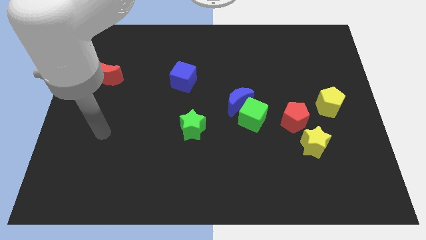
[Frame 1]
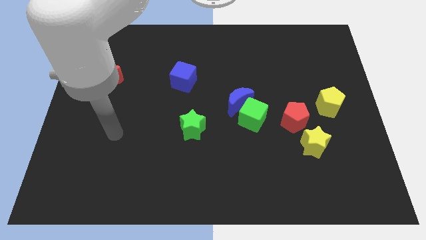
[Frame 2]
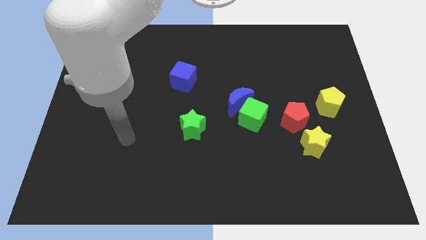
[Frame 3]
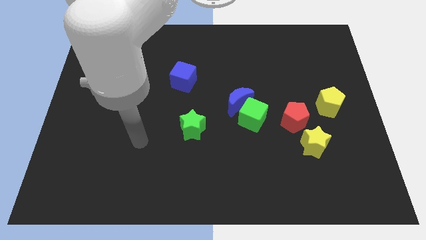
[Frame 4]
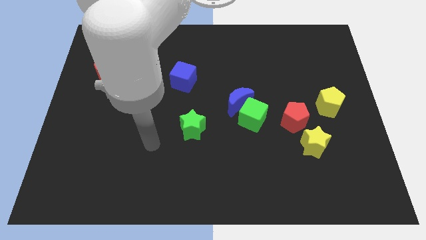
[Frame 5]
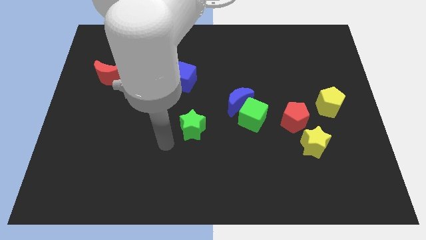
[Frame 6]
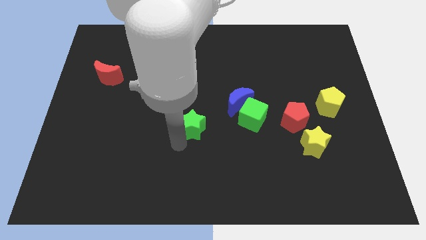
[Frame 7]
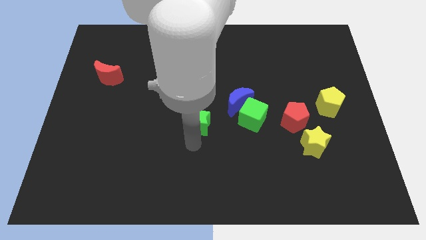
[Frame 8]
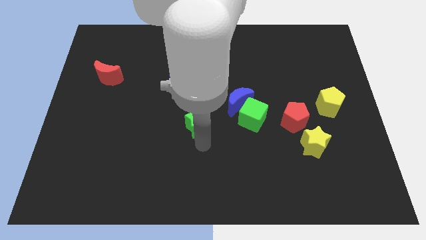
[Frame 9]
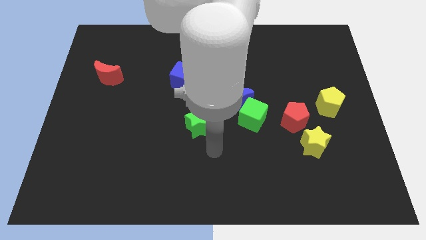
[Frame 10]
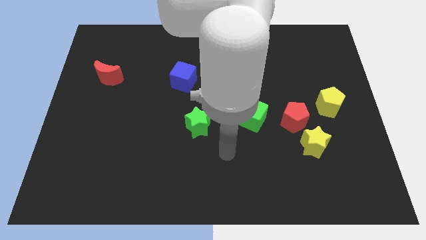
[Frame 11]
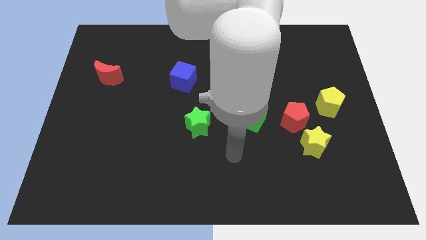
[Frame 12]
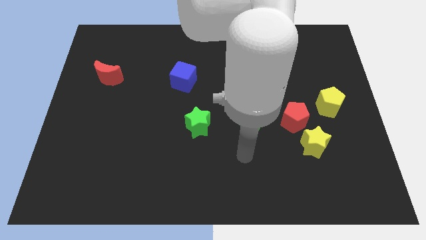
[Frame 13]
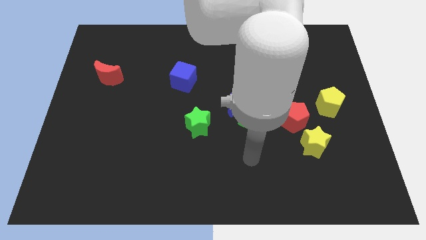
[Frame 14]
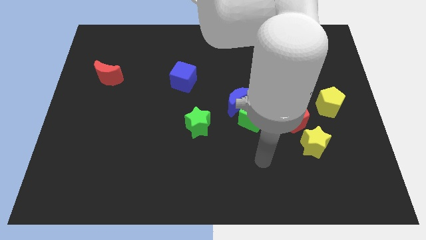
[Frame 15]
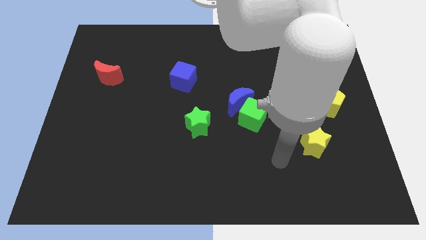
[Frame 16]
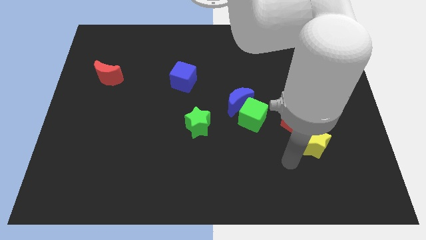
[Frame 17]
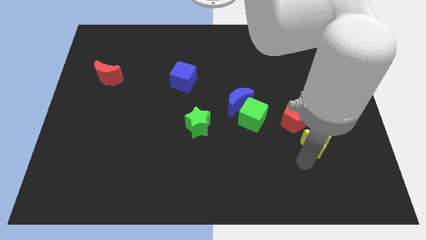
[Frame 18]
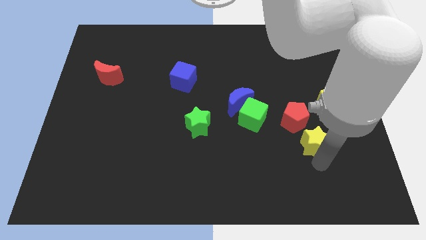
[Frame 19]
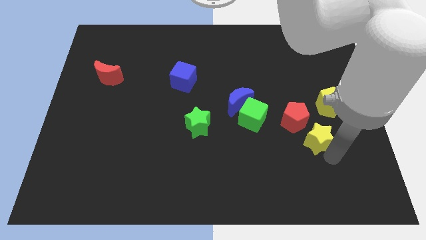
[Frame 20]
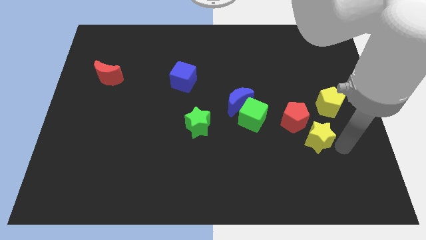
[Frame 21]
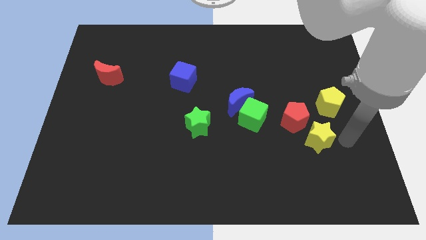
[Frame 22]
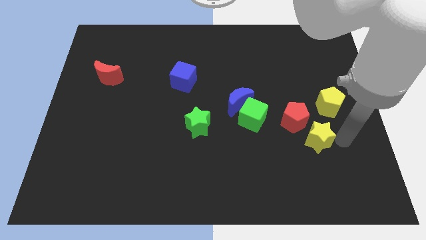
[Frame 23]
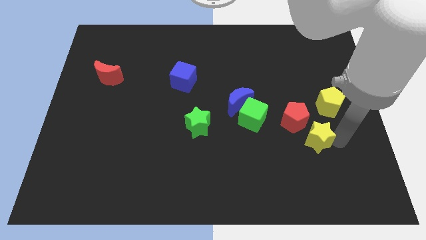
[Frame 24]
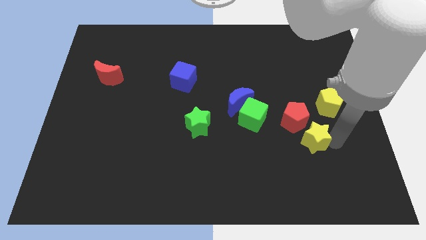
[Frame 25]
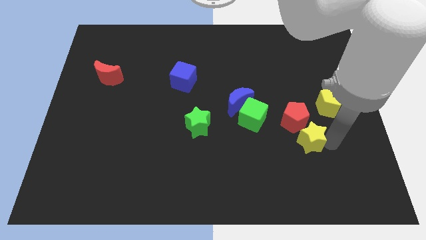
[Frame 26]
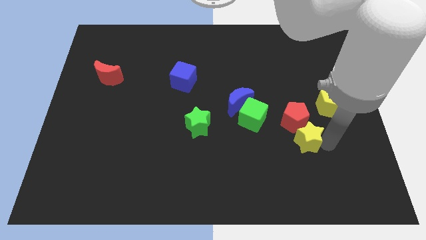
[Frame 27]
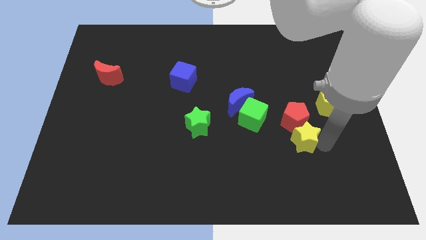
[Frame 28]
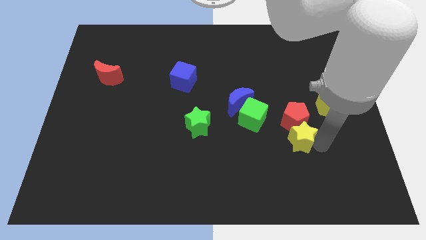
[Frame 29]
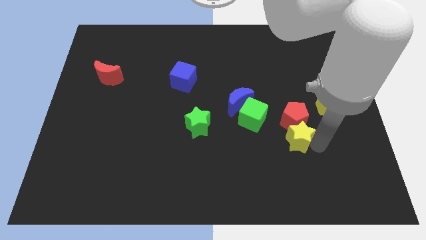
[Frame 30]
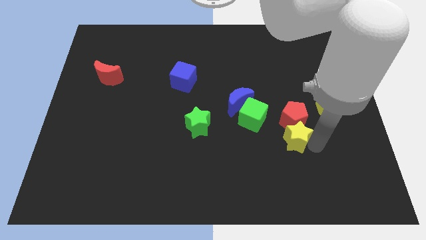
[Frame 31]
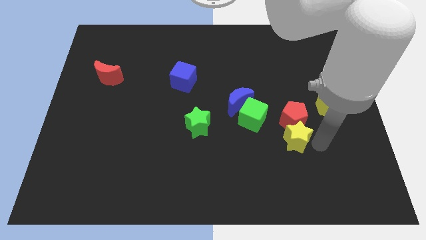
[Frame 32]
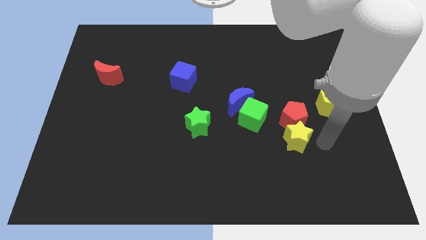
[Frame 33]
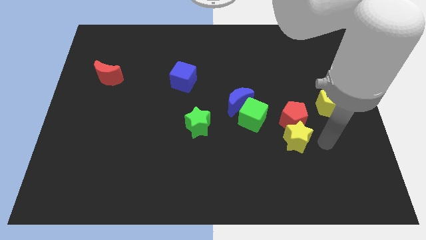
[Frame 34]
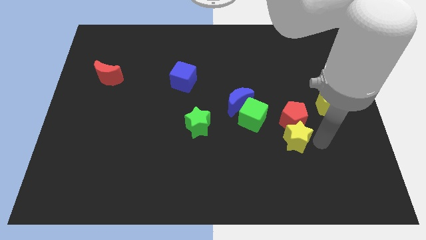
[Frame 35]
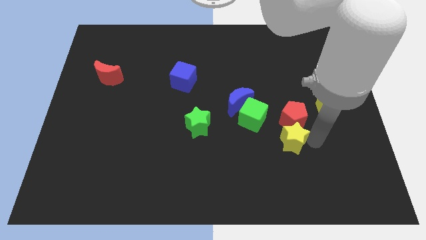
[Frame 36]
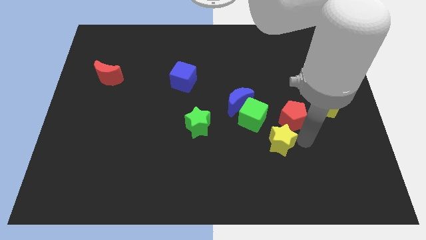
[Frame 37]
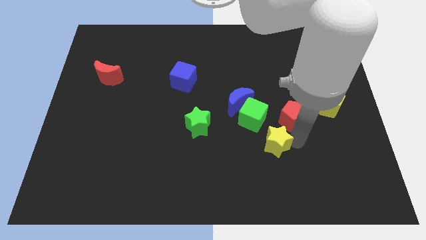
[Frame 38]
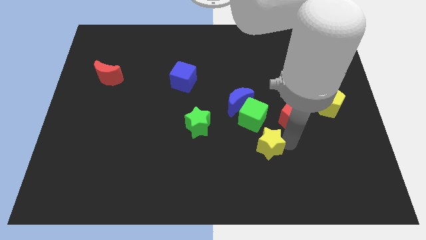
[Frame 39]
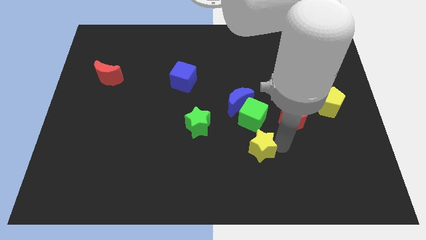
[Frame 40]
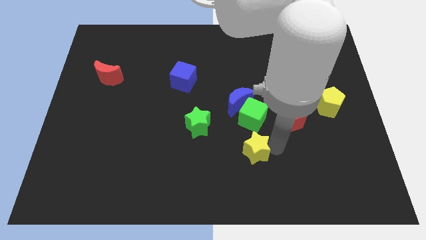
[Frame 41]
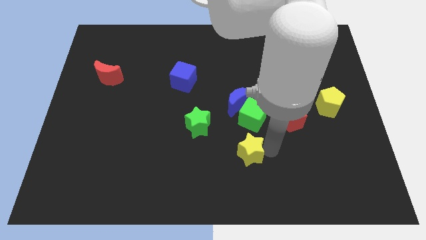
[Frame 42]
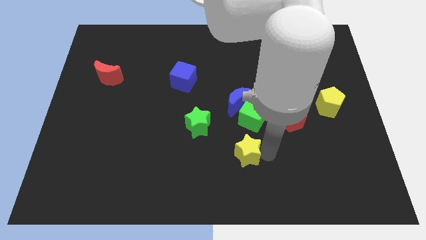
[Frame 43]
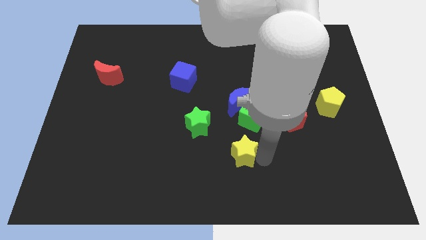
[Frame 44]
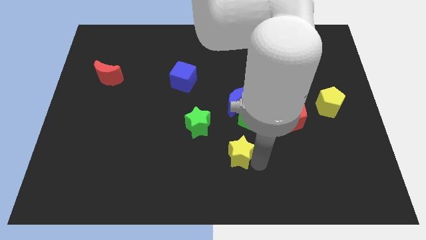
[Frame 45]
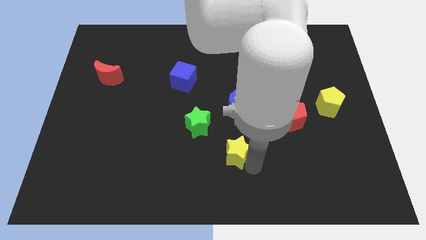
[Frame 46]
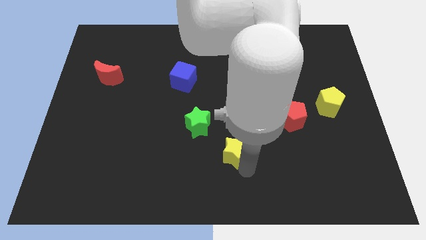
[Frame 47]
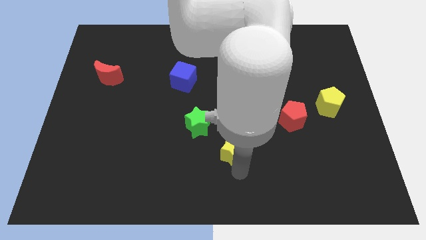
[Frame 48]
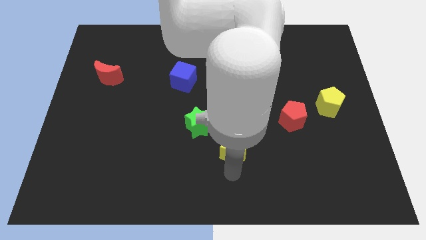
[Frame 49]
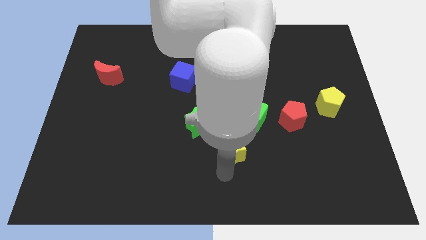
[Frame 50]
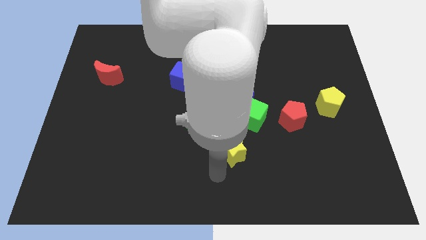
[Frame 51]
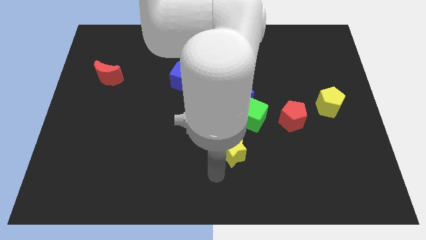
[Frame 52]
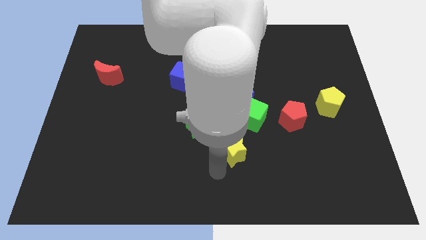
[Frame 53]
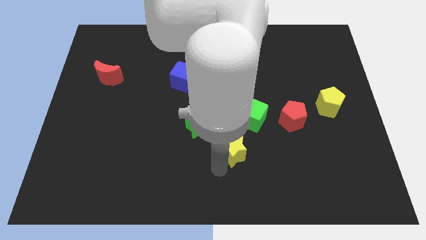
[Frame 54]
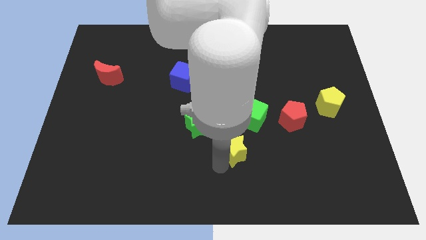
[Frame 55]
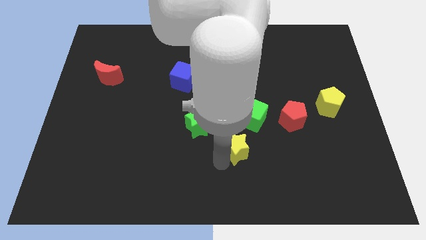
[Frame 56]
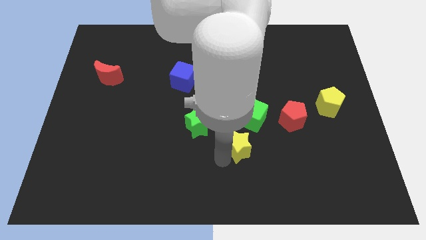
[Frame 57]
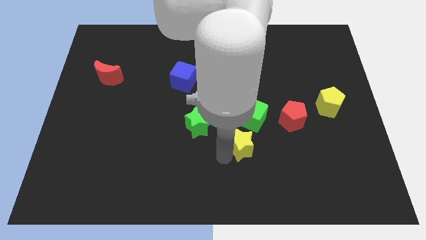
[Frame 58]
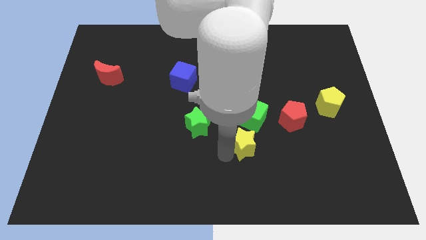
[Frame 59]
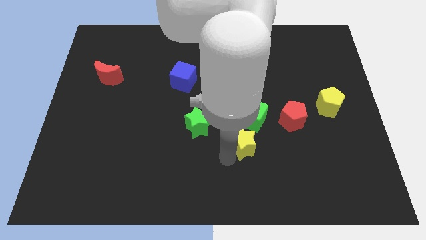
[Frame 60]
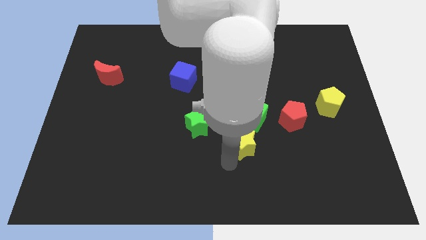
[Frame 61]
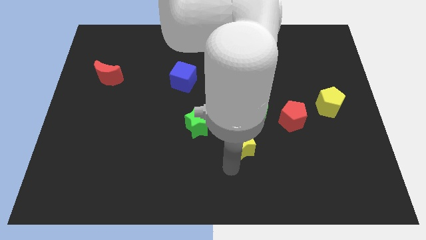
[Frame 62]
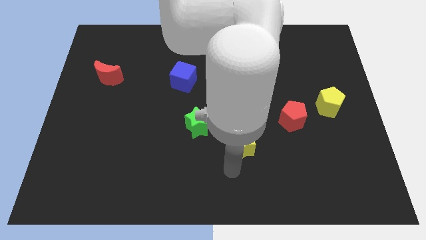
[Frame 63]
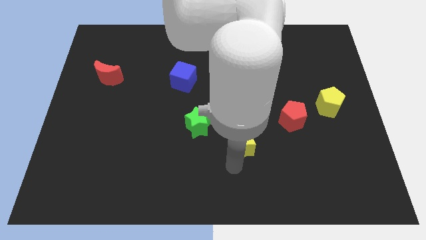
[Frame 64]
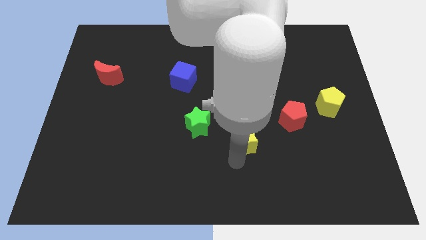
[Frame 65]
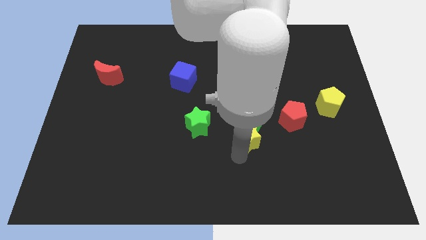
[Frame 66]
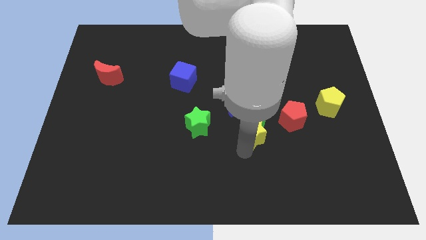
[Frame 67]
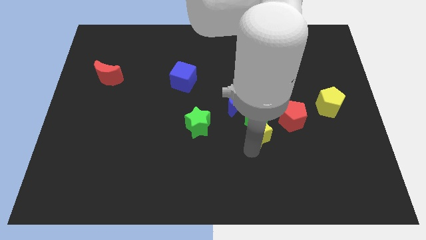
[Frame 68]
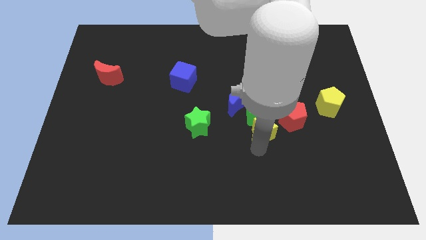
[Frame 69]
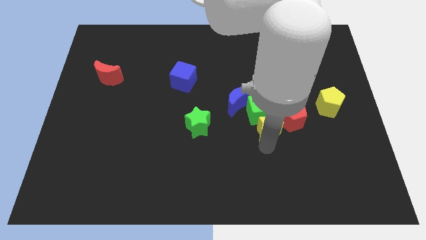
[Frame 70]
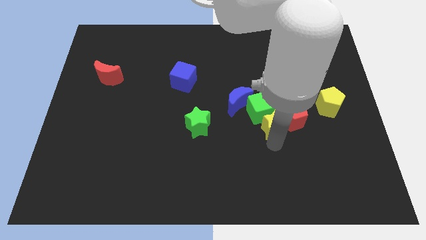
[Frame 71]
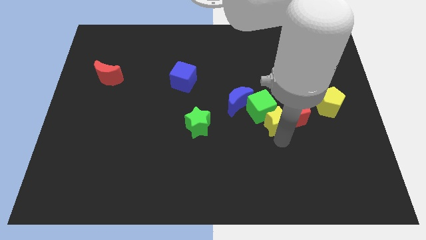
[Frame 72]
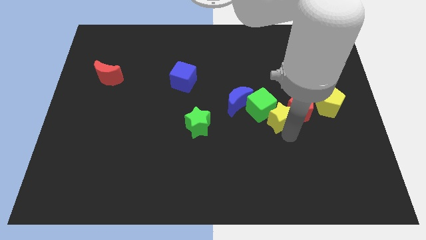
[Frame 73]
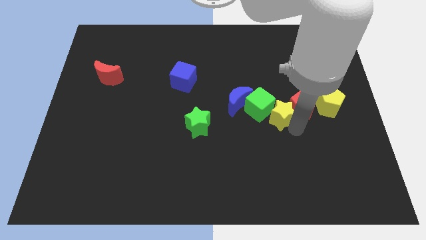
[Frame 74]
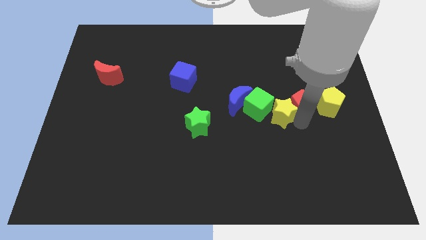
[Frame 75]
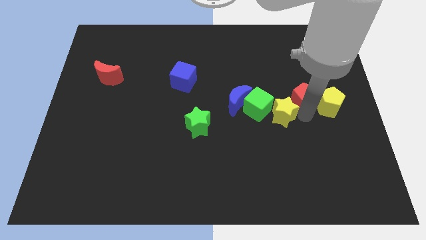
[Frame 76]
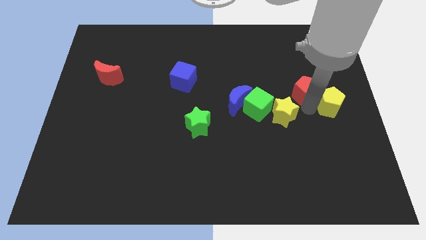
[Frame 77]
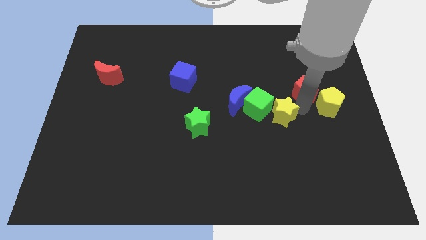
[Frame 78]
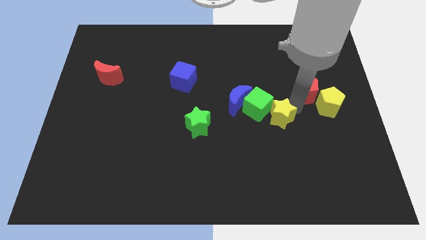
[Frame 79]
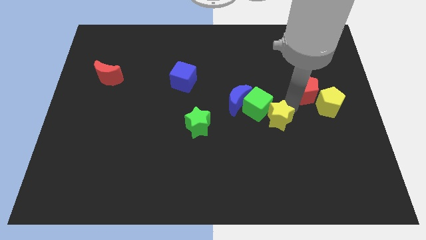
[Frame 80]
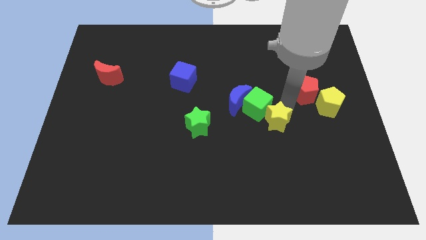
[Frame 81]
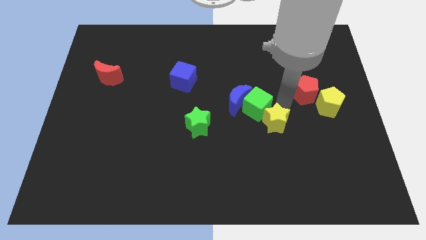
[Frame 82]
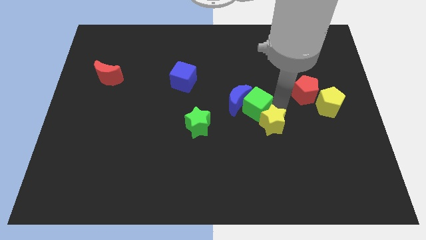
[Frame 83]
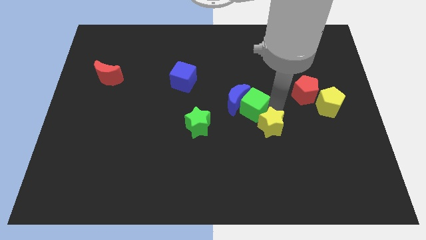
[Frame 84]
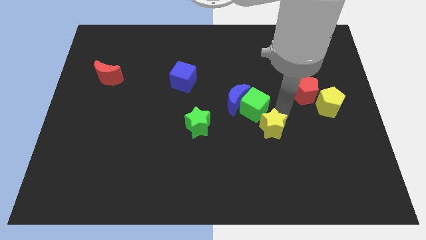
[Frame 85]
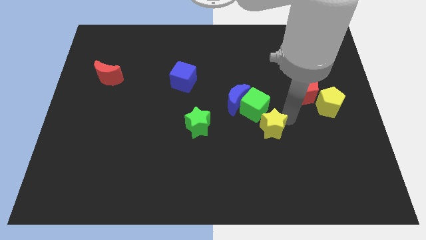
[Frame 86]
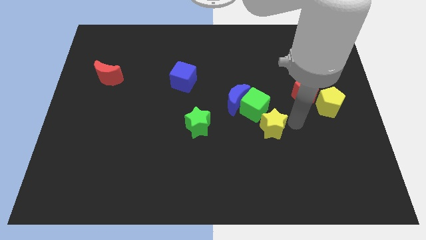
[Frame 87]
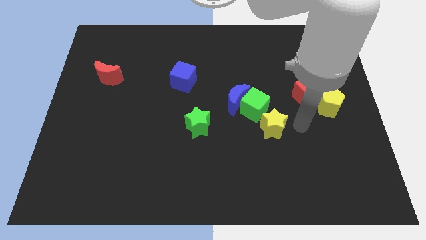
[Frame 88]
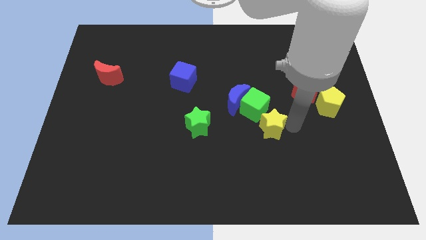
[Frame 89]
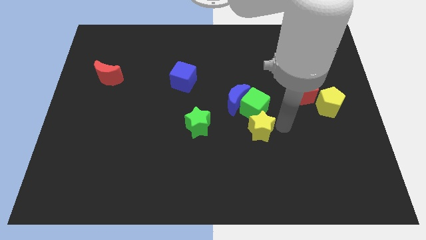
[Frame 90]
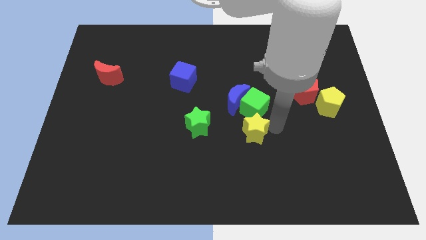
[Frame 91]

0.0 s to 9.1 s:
move the yellow star to the middle of the board
